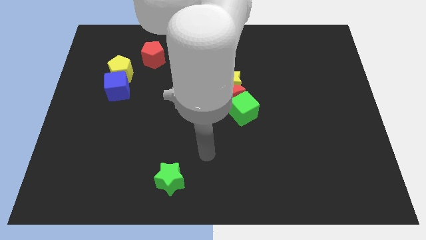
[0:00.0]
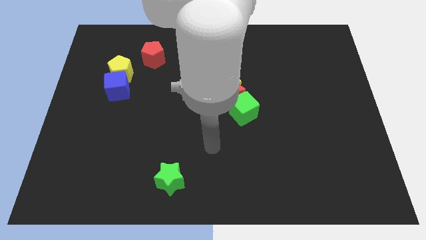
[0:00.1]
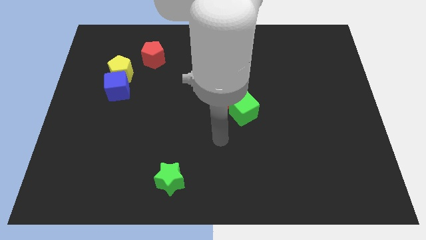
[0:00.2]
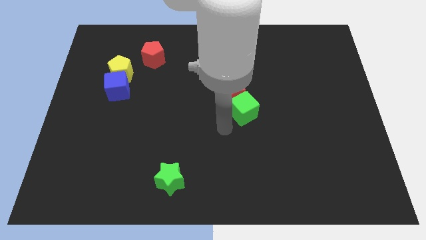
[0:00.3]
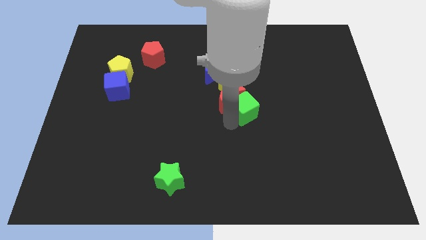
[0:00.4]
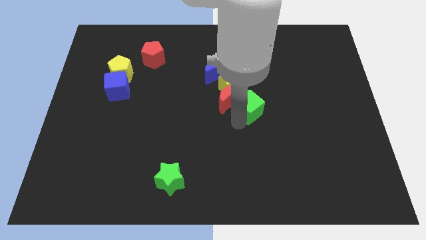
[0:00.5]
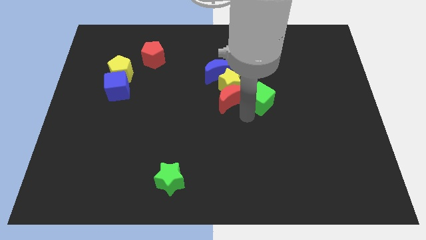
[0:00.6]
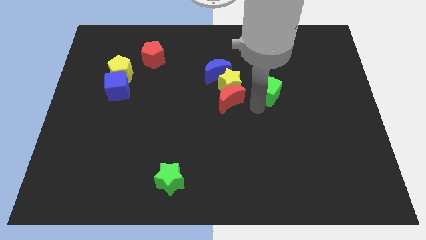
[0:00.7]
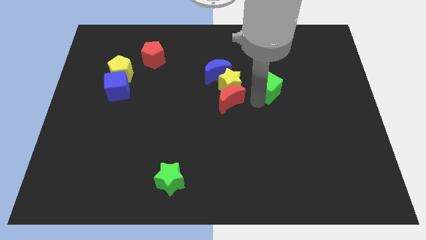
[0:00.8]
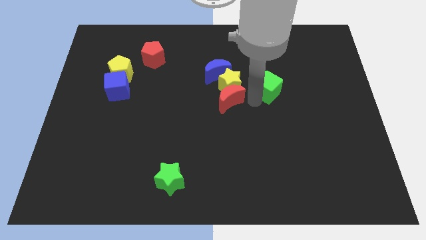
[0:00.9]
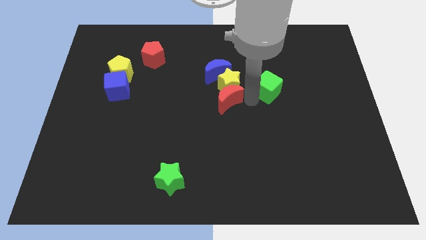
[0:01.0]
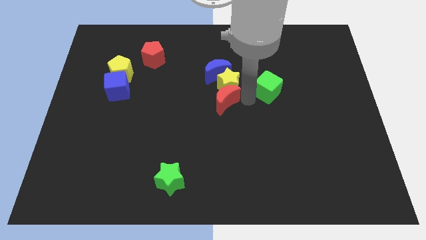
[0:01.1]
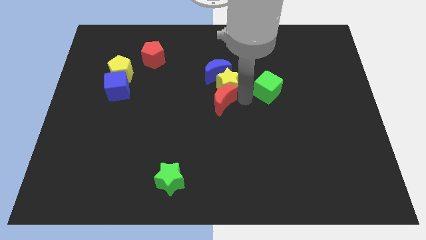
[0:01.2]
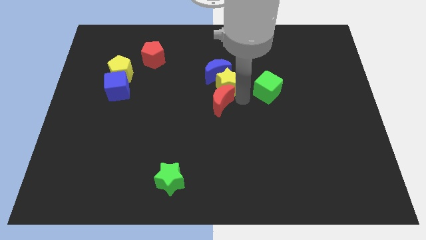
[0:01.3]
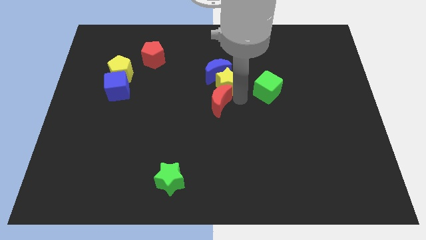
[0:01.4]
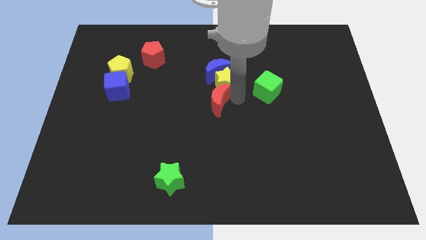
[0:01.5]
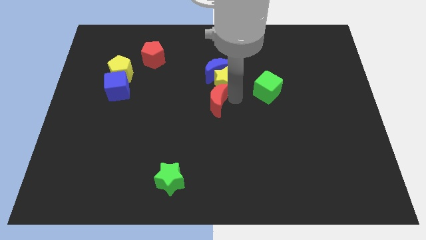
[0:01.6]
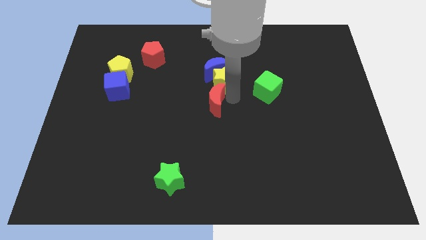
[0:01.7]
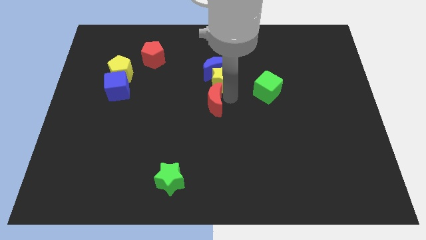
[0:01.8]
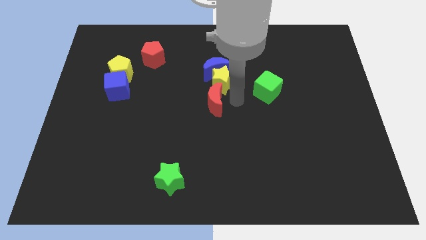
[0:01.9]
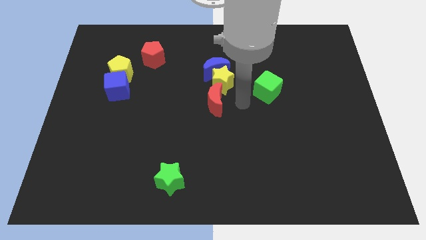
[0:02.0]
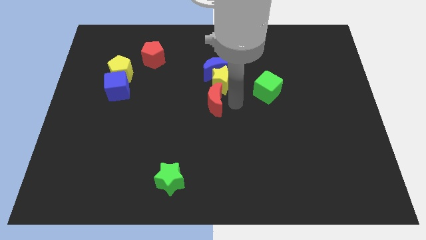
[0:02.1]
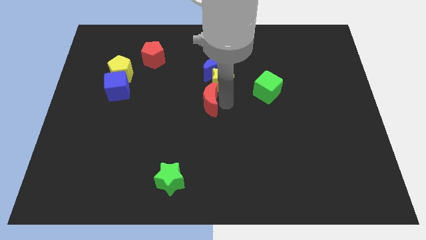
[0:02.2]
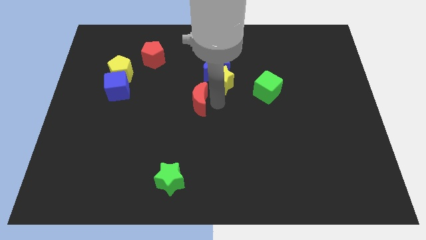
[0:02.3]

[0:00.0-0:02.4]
push the red moon left slightly

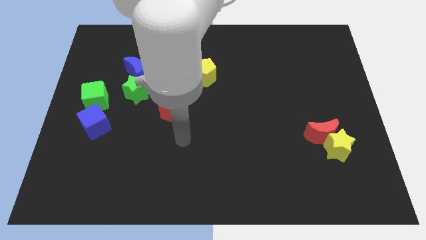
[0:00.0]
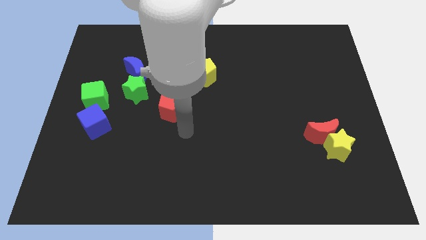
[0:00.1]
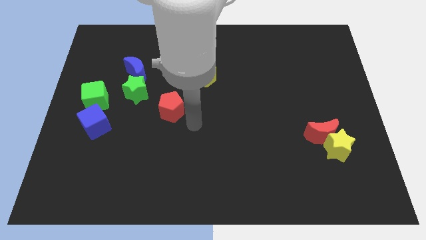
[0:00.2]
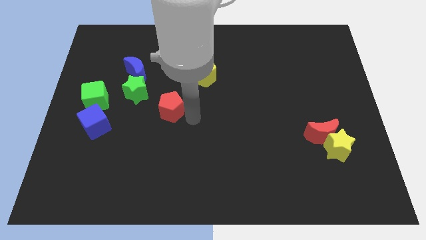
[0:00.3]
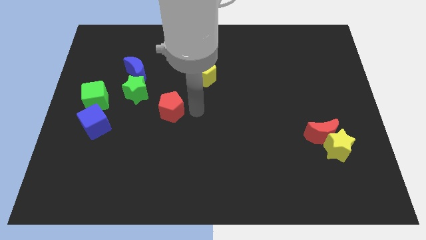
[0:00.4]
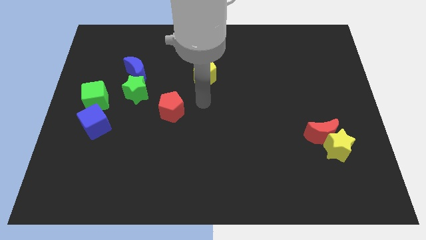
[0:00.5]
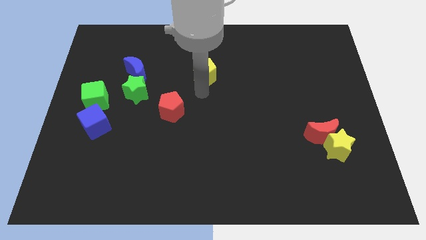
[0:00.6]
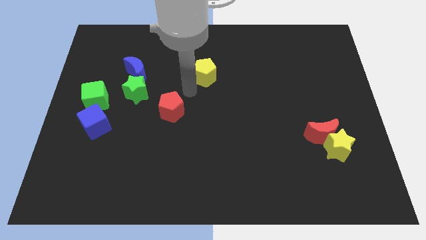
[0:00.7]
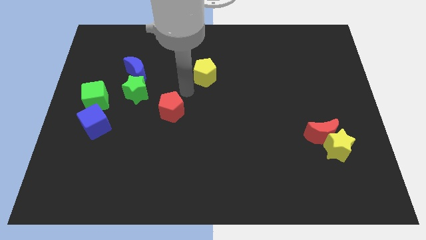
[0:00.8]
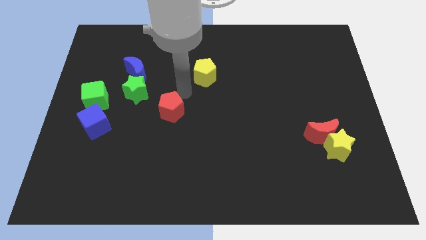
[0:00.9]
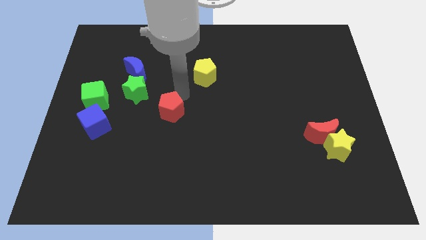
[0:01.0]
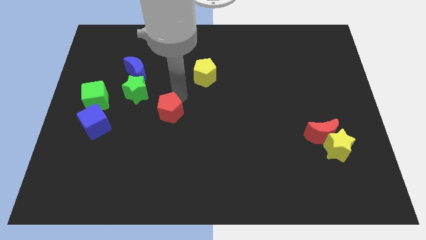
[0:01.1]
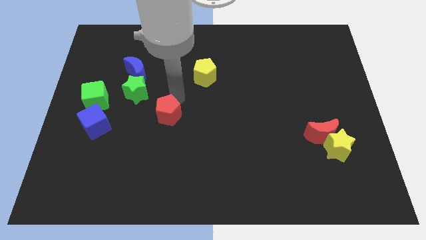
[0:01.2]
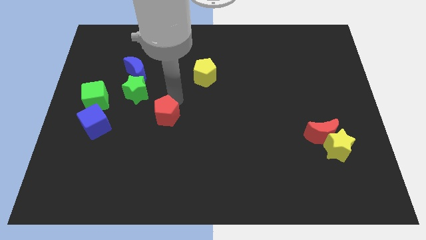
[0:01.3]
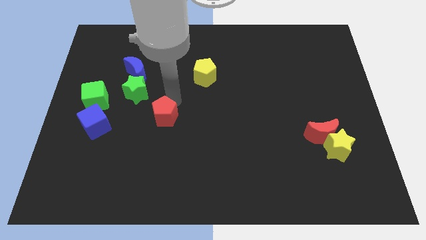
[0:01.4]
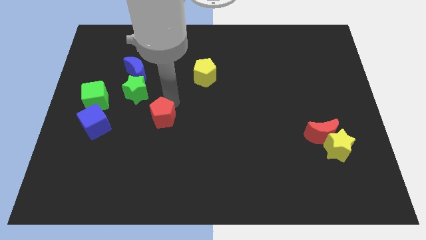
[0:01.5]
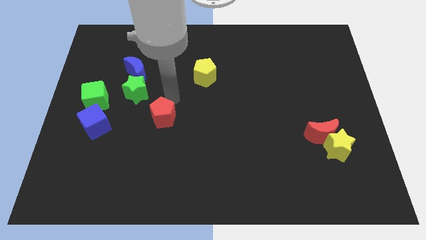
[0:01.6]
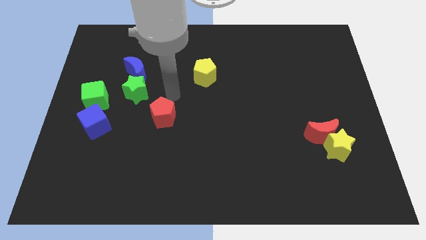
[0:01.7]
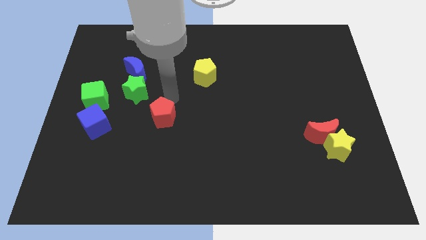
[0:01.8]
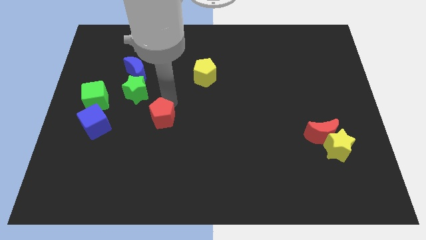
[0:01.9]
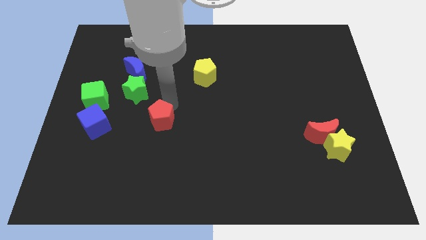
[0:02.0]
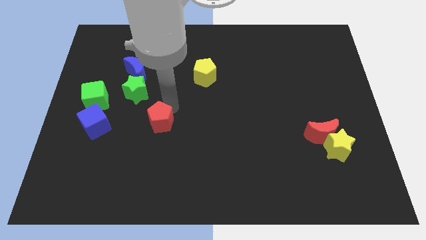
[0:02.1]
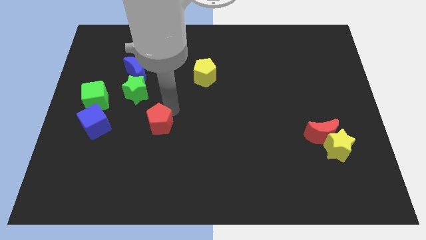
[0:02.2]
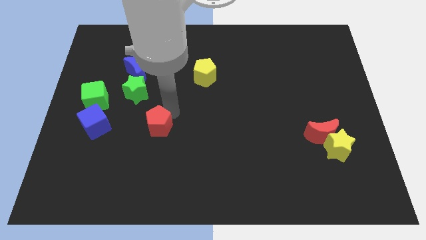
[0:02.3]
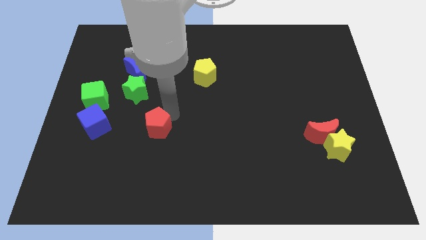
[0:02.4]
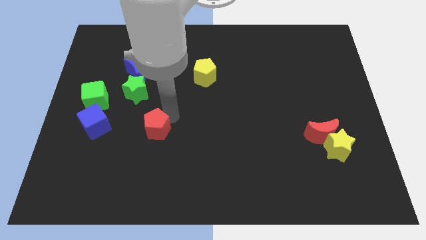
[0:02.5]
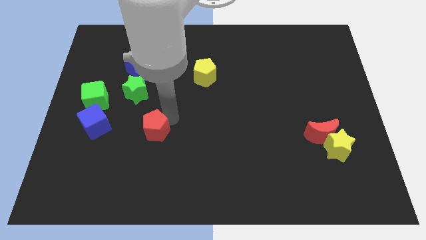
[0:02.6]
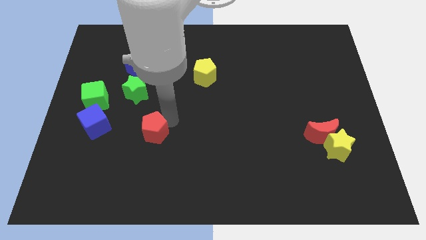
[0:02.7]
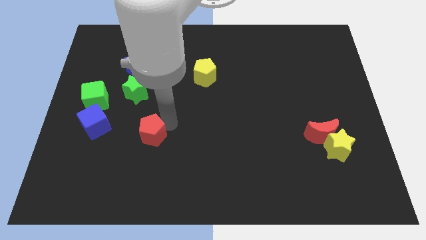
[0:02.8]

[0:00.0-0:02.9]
slightly slide the red pentagon diagonally downwards and to the left

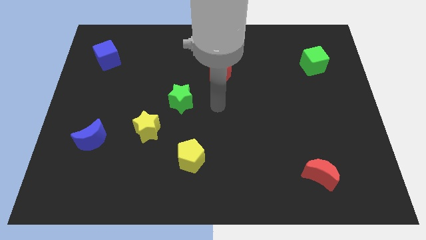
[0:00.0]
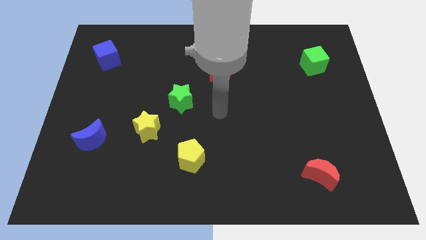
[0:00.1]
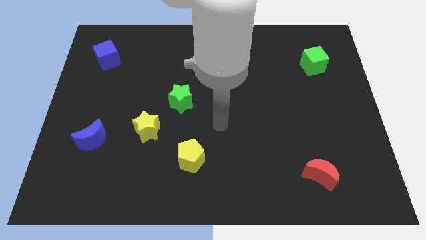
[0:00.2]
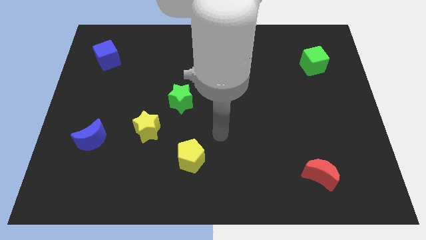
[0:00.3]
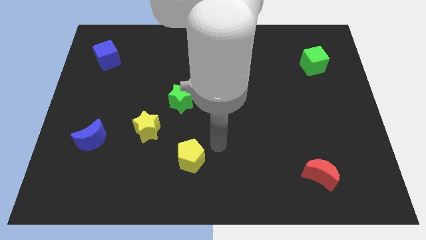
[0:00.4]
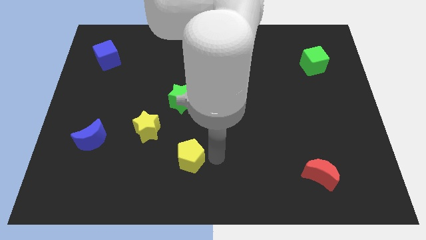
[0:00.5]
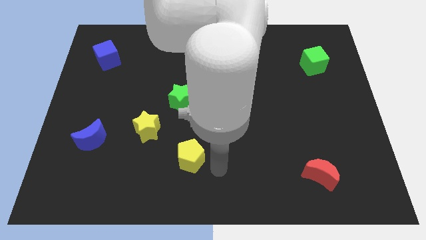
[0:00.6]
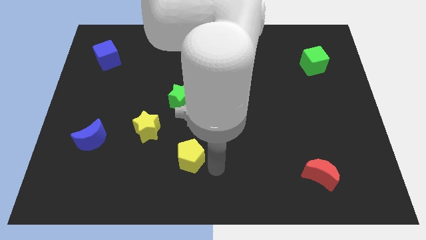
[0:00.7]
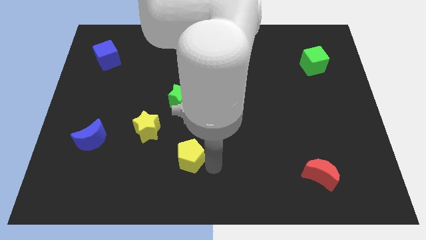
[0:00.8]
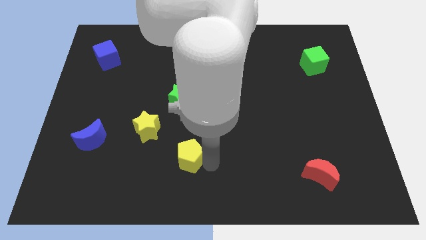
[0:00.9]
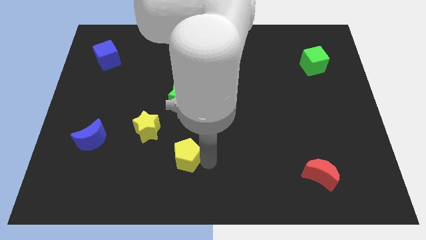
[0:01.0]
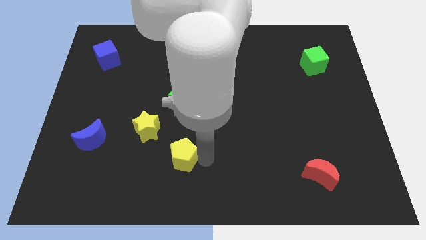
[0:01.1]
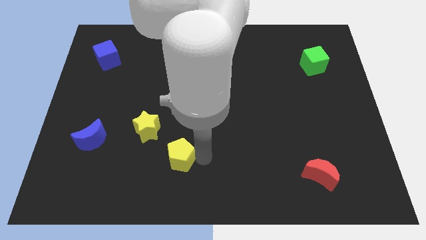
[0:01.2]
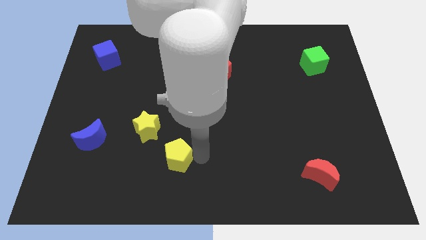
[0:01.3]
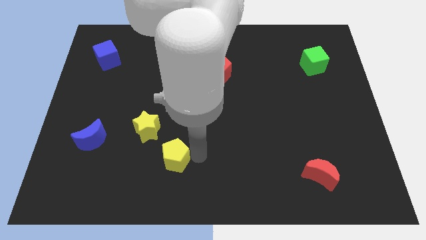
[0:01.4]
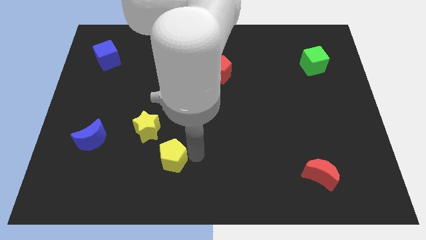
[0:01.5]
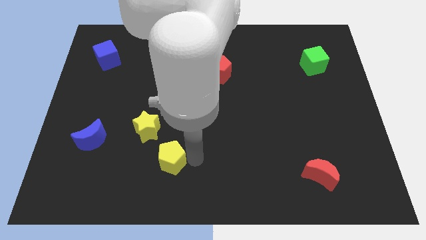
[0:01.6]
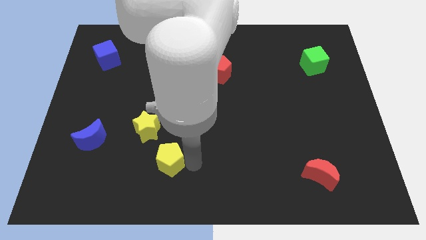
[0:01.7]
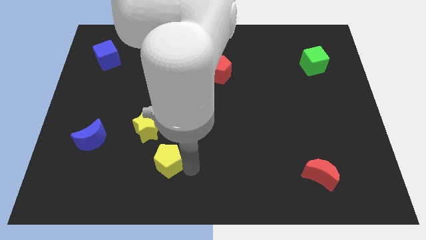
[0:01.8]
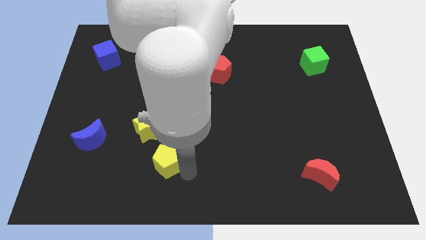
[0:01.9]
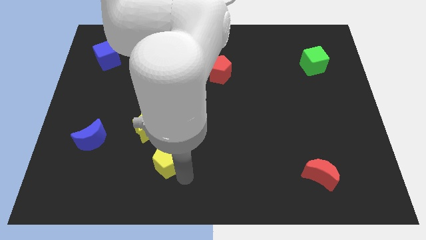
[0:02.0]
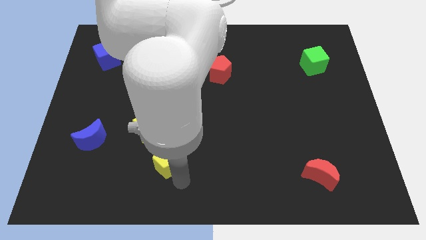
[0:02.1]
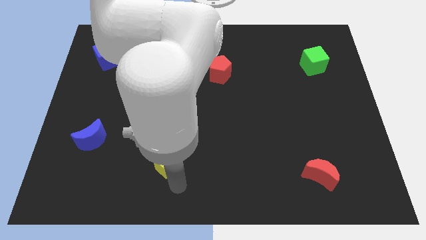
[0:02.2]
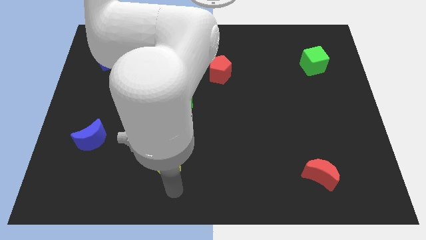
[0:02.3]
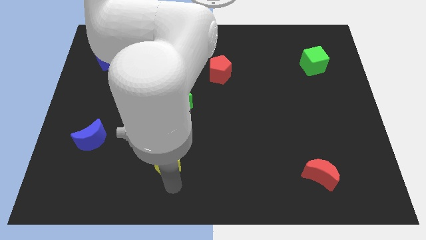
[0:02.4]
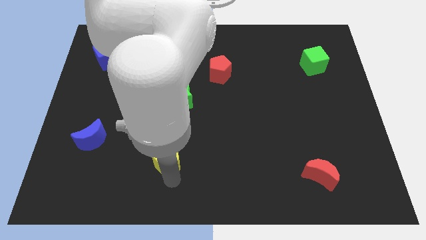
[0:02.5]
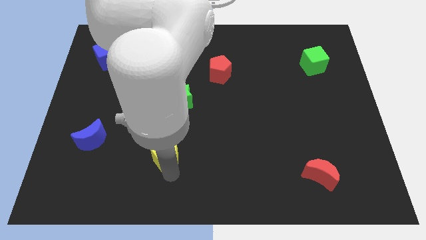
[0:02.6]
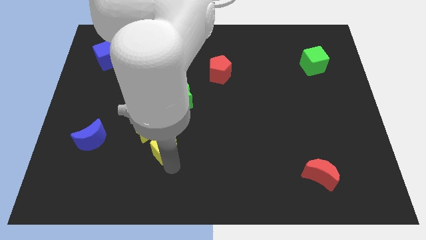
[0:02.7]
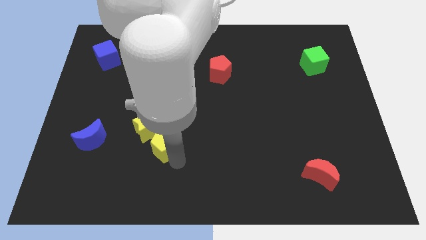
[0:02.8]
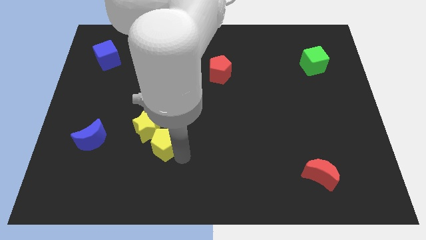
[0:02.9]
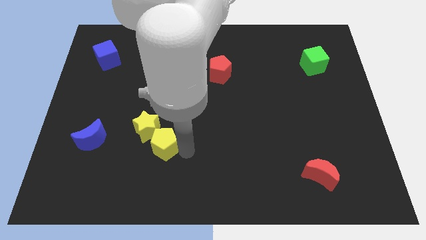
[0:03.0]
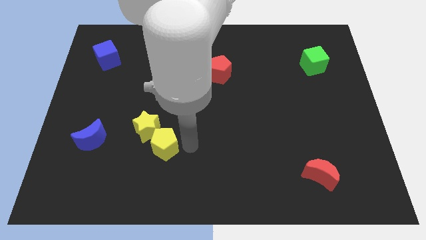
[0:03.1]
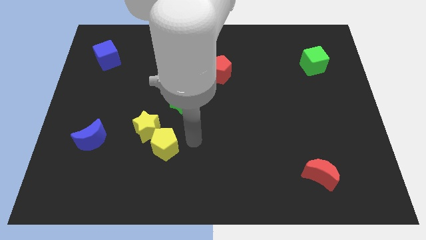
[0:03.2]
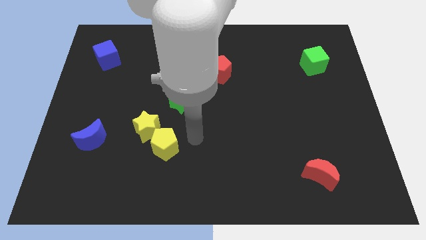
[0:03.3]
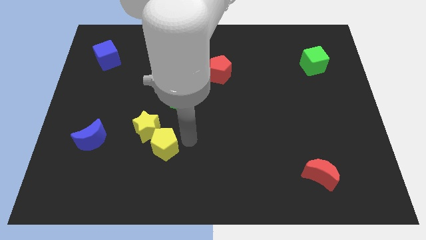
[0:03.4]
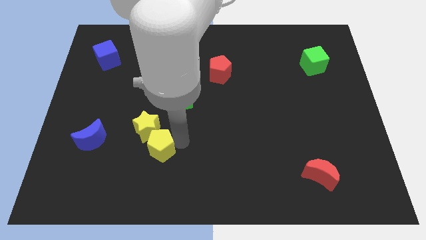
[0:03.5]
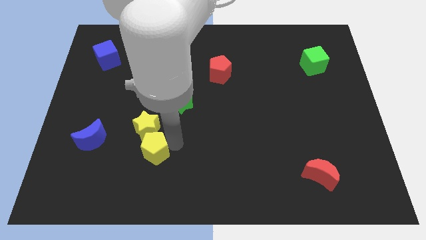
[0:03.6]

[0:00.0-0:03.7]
slightly slide the yellow pentagon to the left
